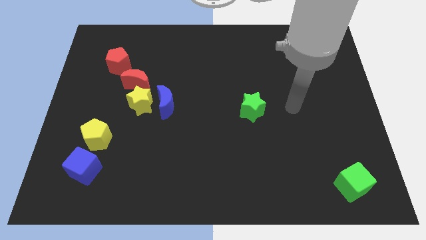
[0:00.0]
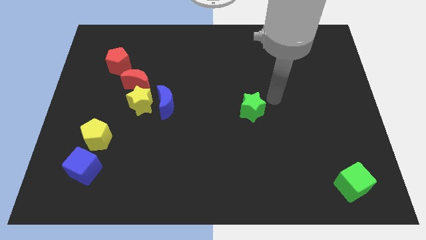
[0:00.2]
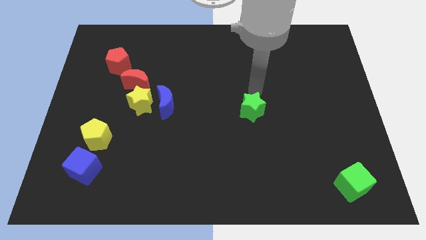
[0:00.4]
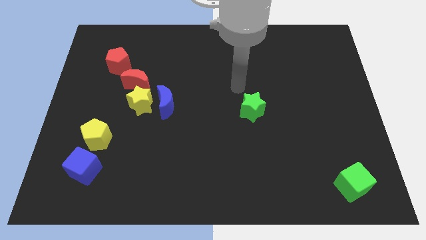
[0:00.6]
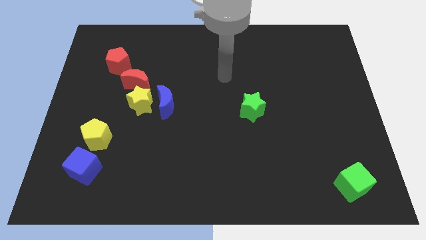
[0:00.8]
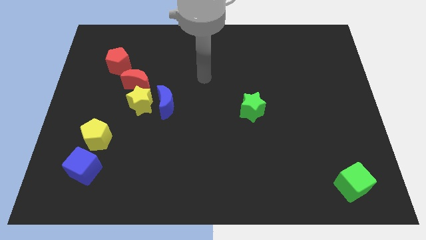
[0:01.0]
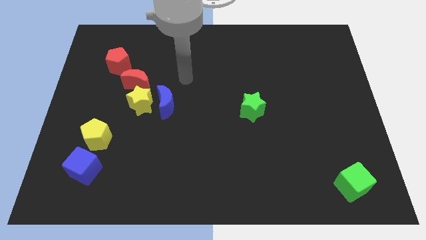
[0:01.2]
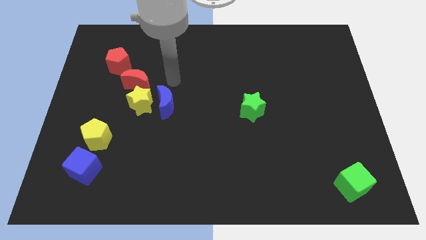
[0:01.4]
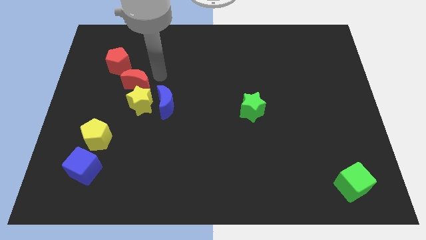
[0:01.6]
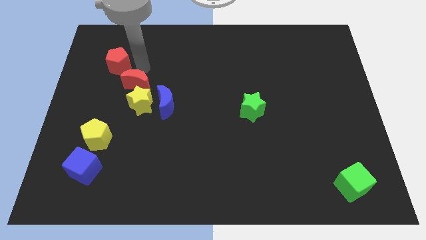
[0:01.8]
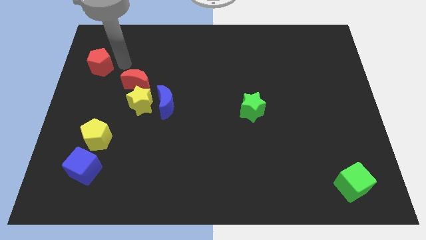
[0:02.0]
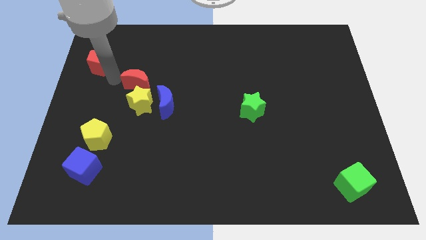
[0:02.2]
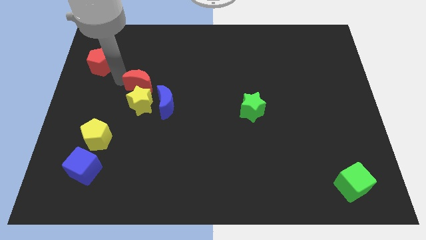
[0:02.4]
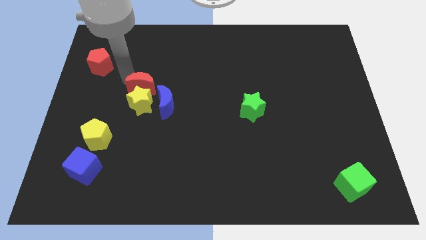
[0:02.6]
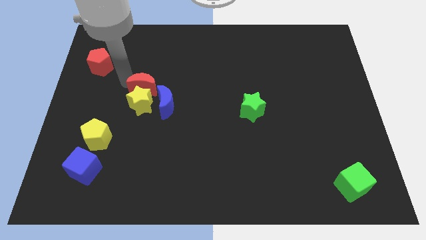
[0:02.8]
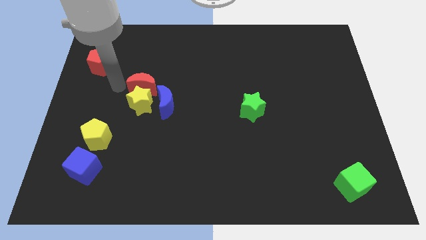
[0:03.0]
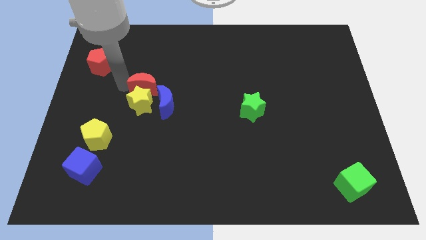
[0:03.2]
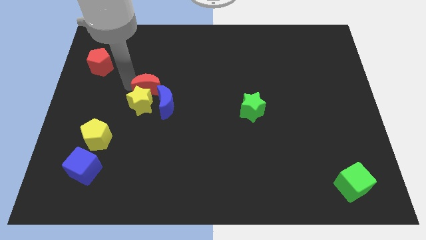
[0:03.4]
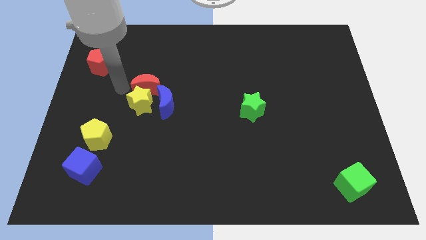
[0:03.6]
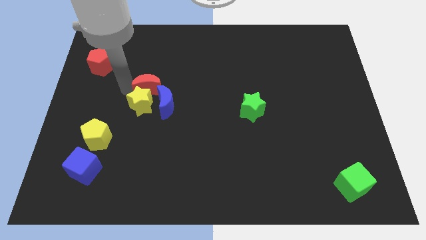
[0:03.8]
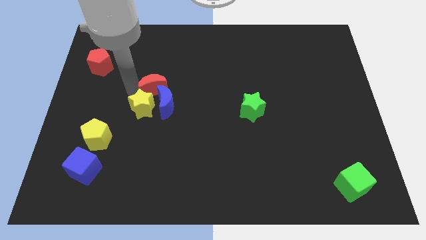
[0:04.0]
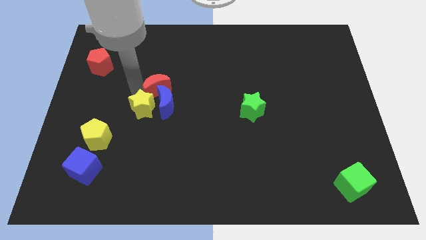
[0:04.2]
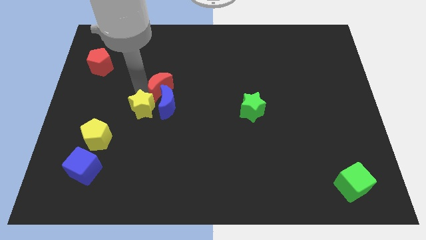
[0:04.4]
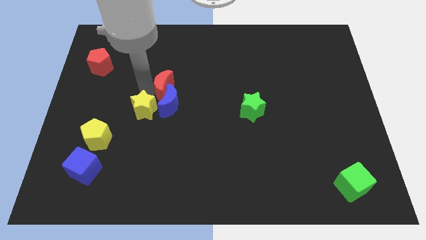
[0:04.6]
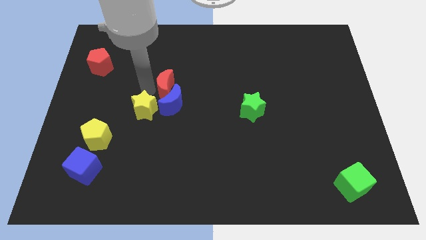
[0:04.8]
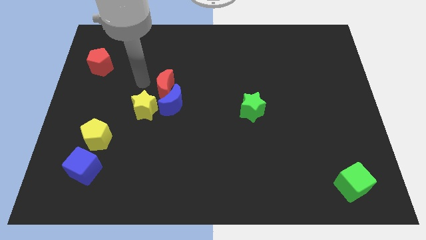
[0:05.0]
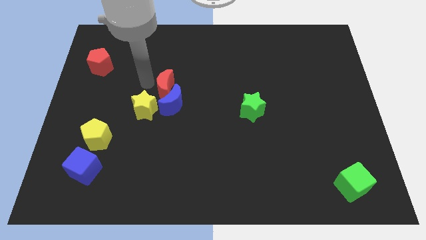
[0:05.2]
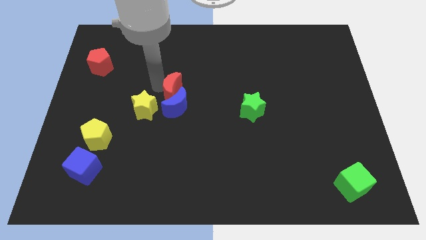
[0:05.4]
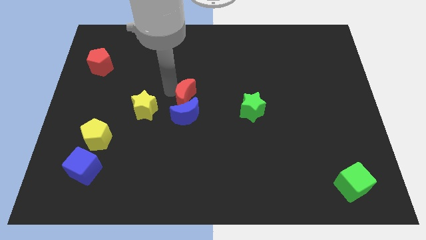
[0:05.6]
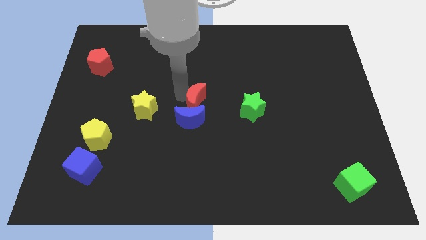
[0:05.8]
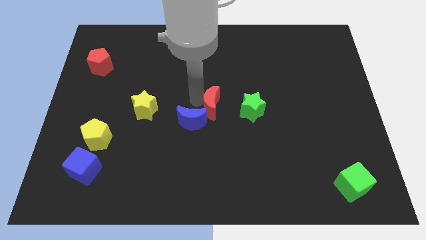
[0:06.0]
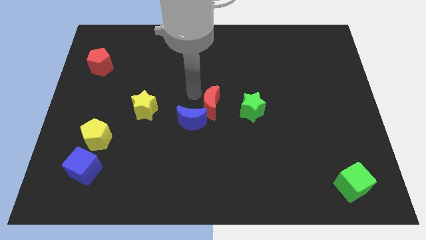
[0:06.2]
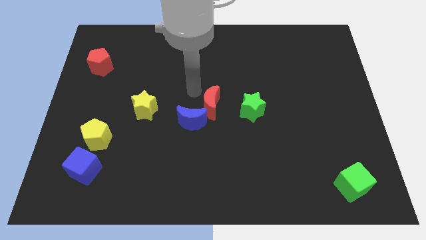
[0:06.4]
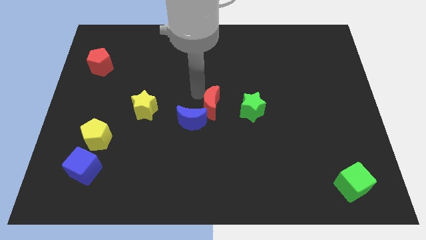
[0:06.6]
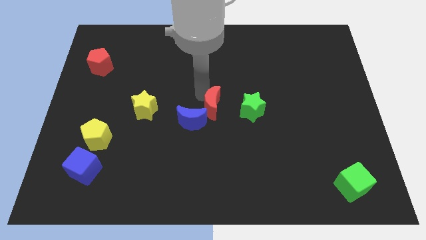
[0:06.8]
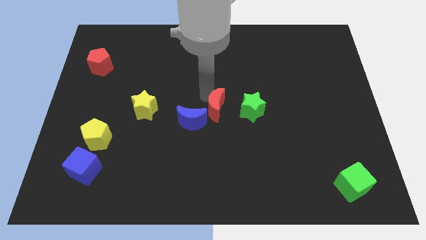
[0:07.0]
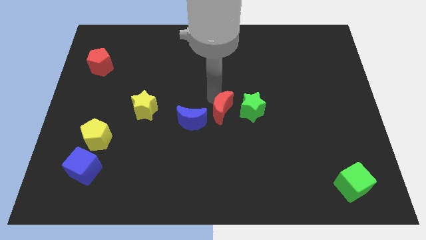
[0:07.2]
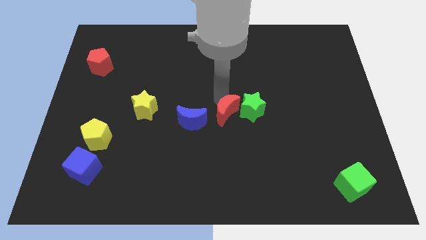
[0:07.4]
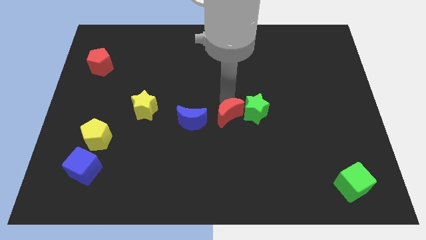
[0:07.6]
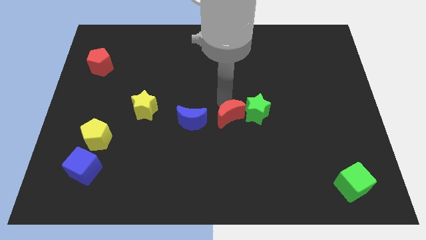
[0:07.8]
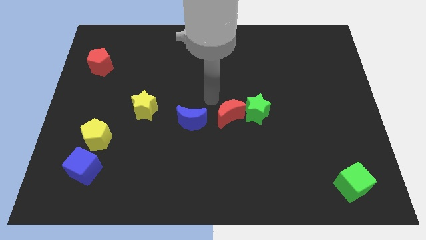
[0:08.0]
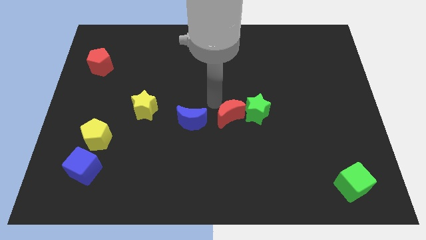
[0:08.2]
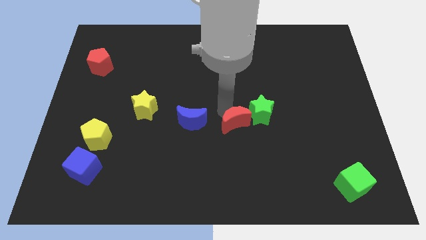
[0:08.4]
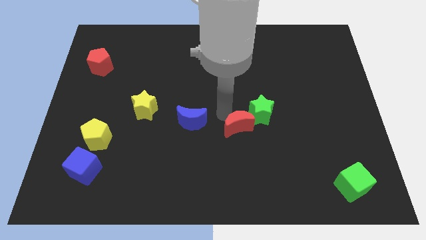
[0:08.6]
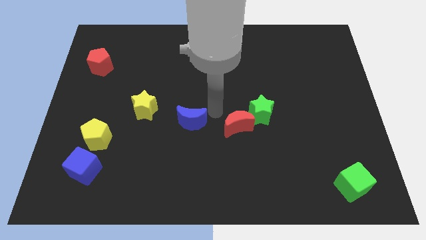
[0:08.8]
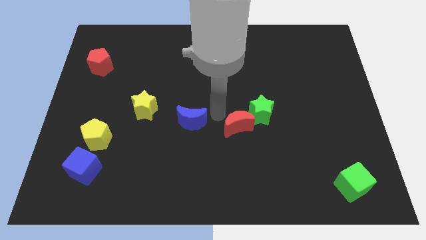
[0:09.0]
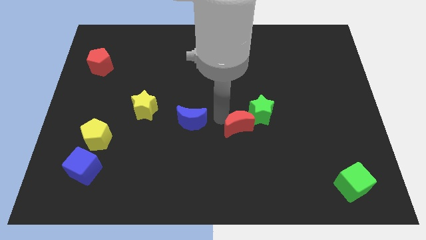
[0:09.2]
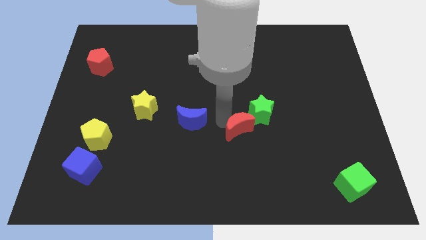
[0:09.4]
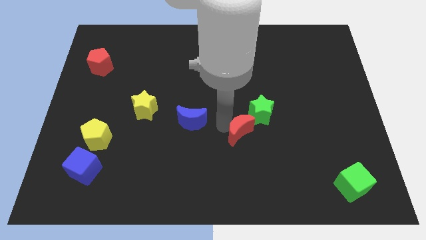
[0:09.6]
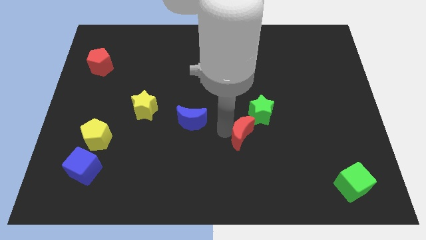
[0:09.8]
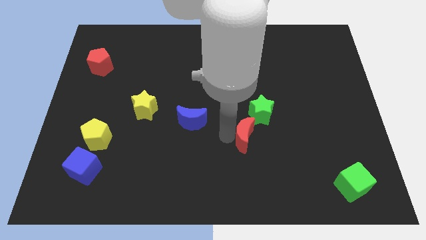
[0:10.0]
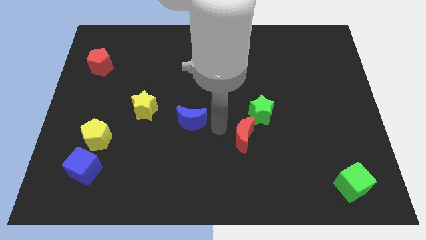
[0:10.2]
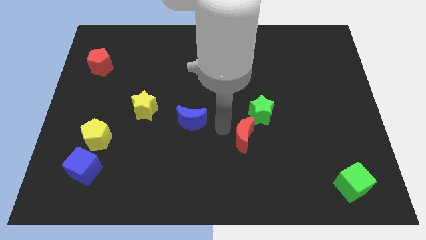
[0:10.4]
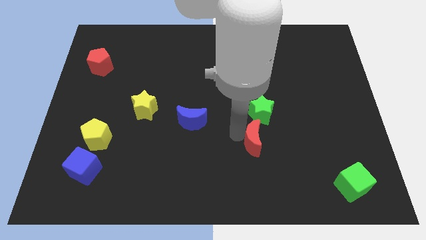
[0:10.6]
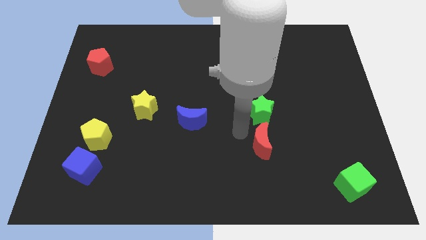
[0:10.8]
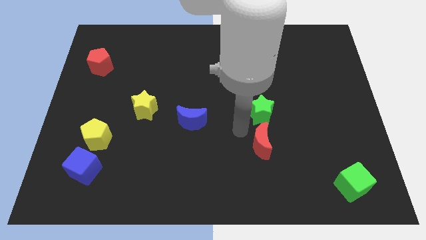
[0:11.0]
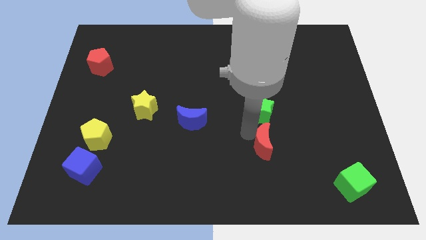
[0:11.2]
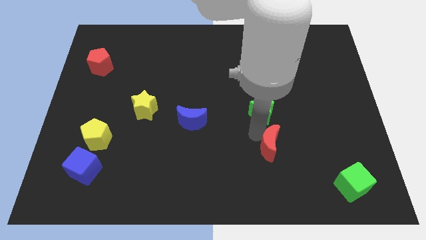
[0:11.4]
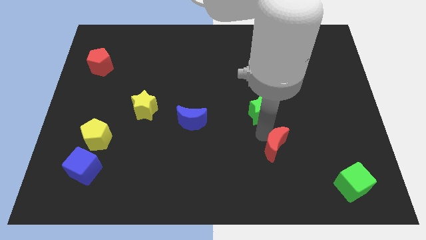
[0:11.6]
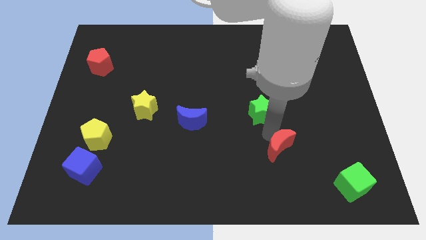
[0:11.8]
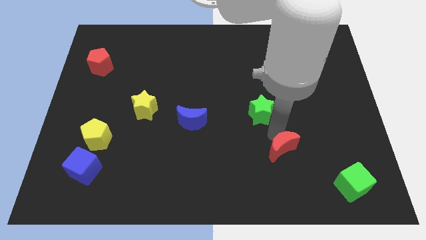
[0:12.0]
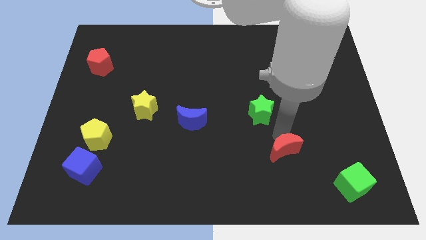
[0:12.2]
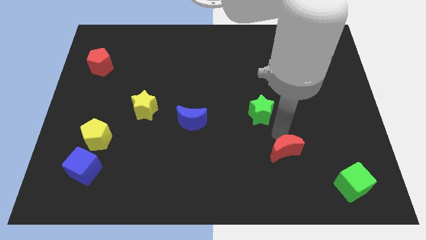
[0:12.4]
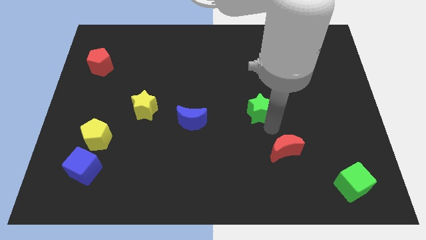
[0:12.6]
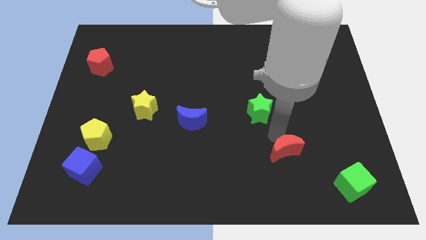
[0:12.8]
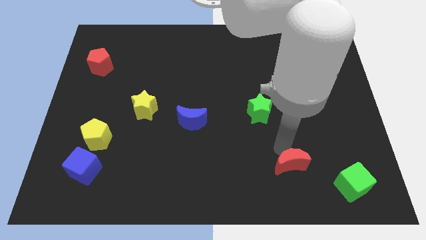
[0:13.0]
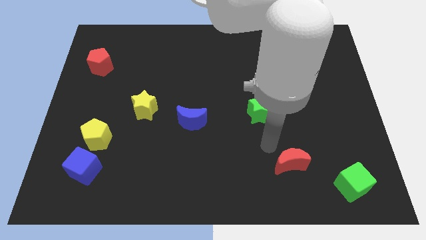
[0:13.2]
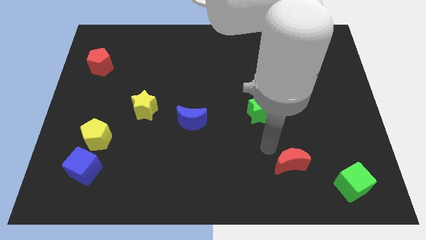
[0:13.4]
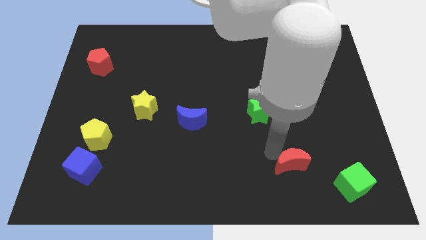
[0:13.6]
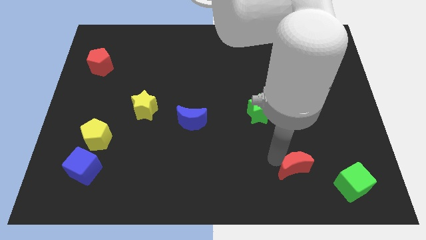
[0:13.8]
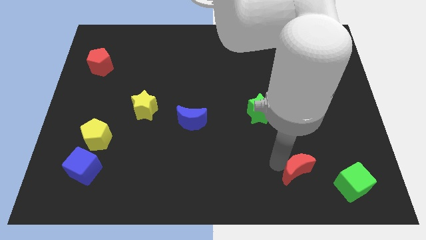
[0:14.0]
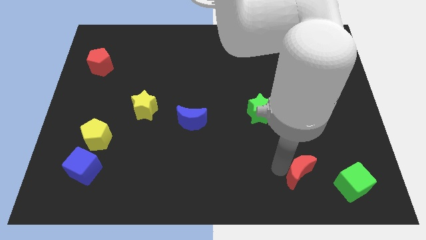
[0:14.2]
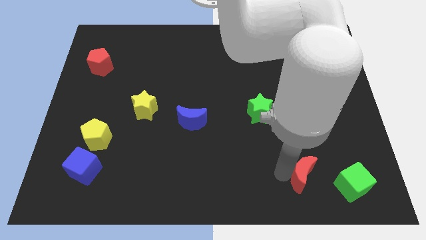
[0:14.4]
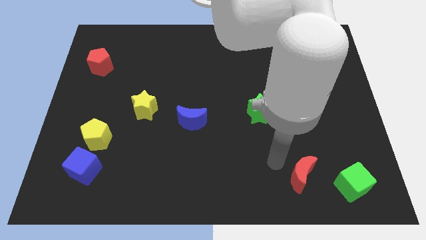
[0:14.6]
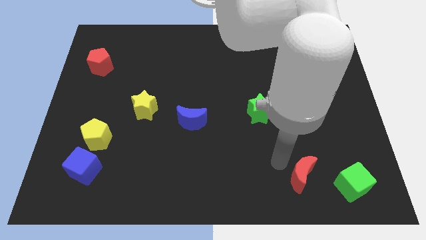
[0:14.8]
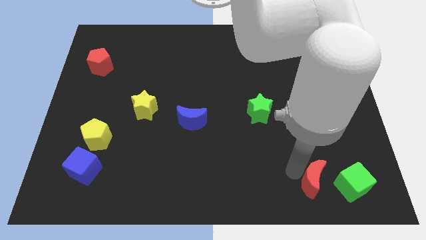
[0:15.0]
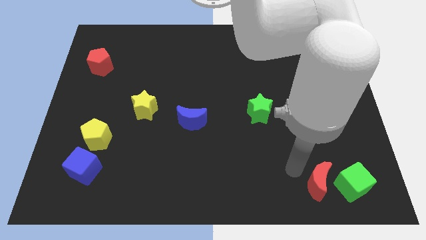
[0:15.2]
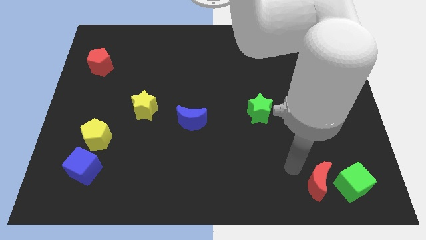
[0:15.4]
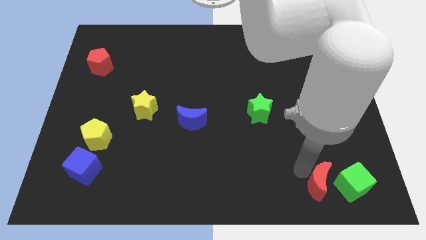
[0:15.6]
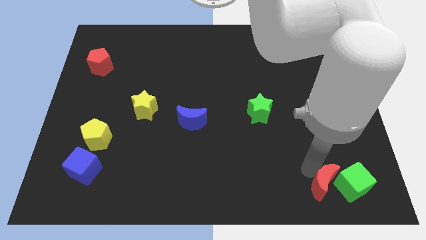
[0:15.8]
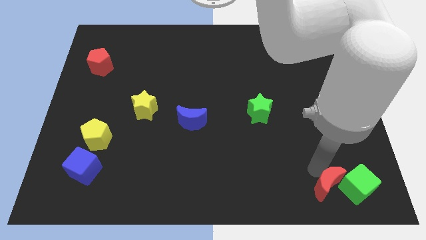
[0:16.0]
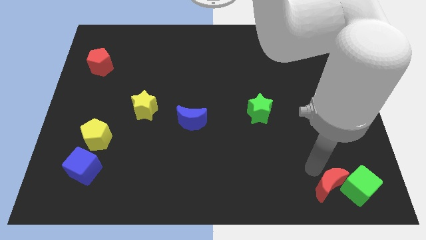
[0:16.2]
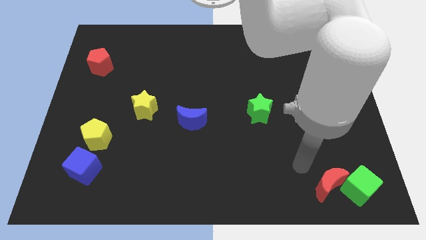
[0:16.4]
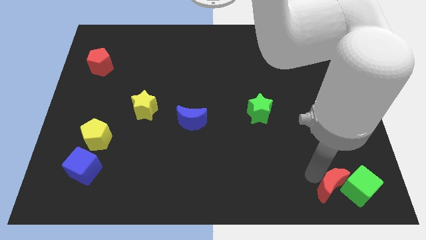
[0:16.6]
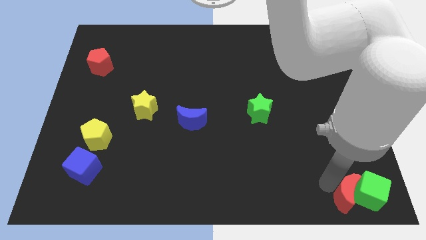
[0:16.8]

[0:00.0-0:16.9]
put the red moon to the lower right corner
